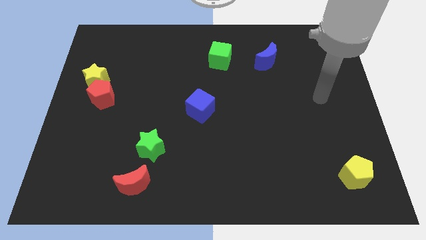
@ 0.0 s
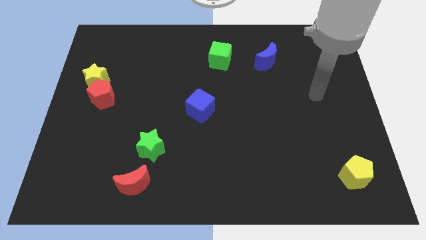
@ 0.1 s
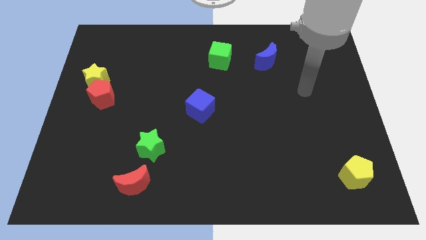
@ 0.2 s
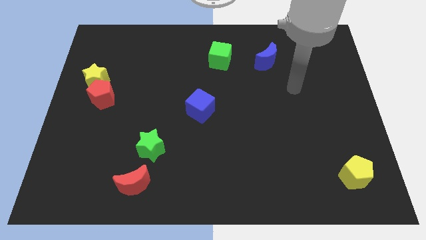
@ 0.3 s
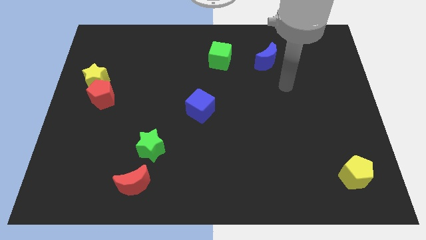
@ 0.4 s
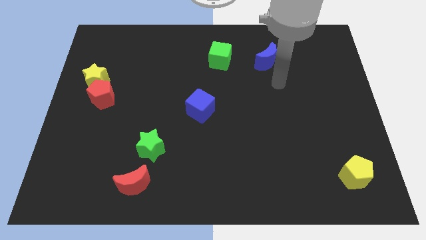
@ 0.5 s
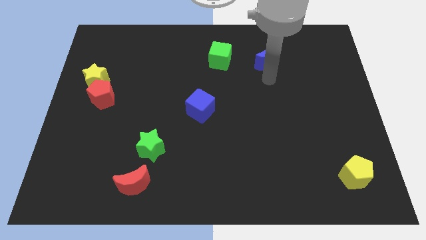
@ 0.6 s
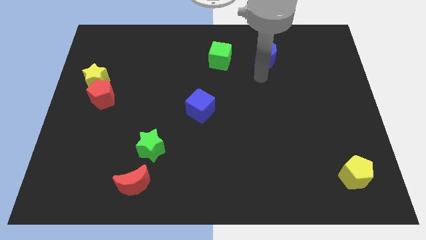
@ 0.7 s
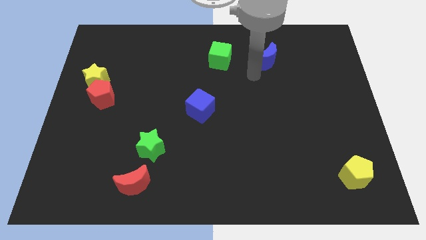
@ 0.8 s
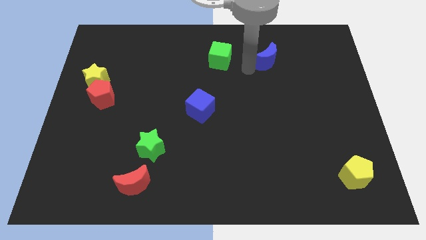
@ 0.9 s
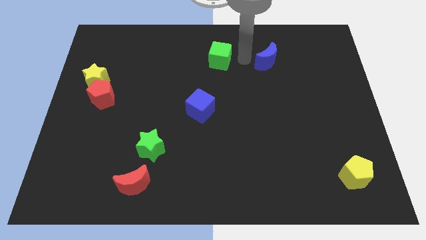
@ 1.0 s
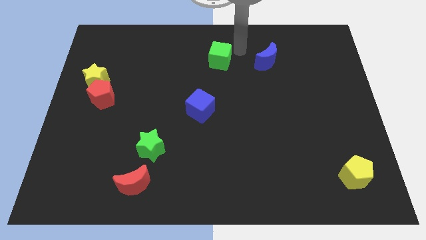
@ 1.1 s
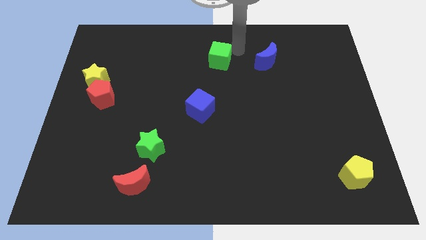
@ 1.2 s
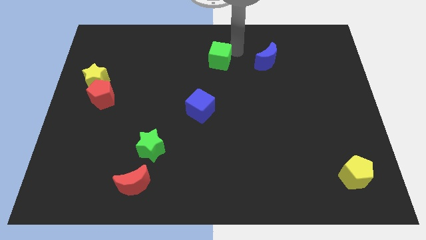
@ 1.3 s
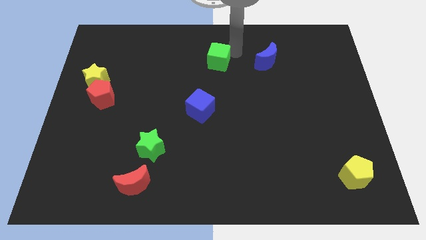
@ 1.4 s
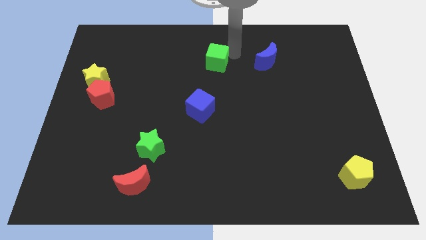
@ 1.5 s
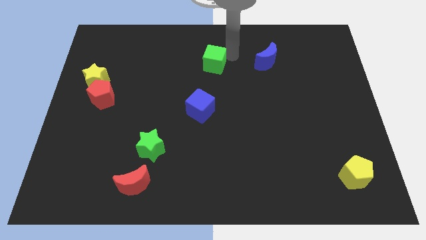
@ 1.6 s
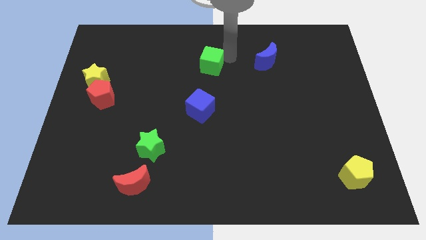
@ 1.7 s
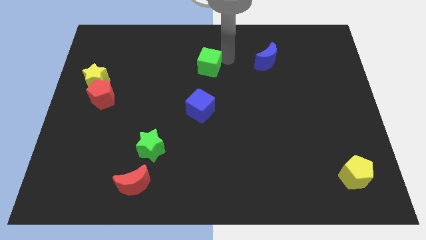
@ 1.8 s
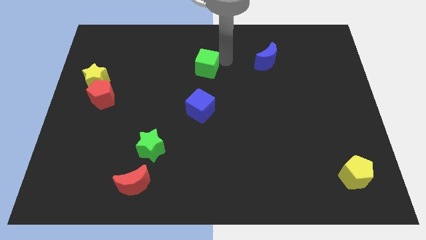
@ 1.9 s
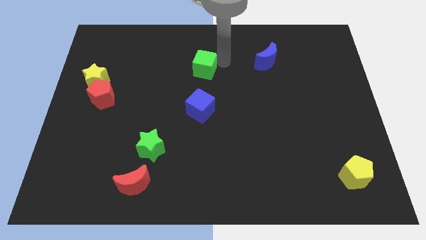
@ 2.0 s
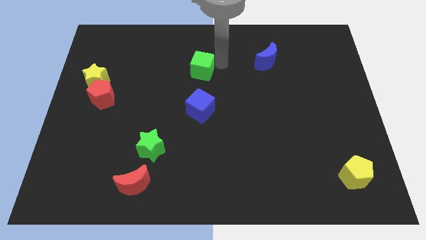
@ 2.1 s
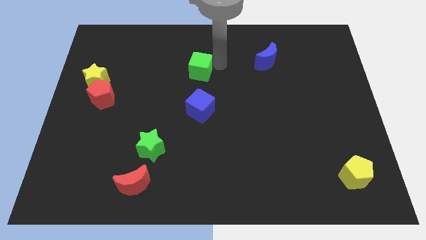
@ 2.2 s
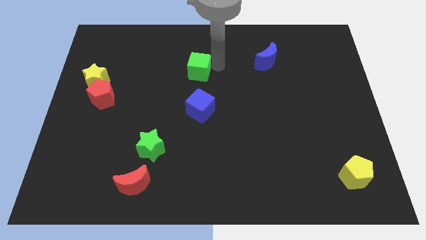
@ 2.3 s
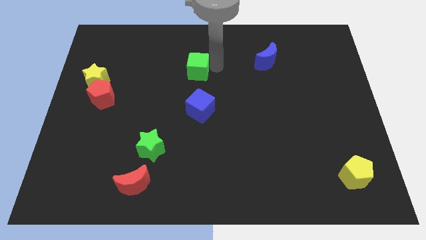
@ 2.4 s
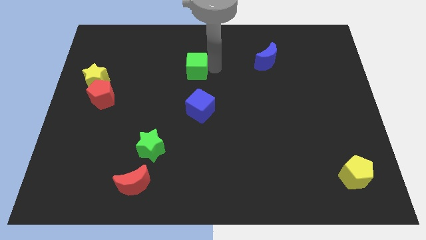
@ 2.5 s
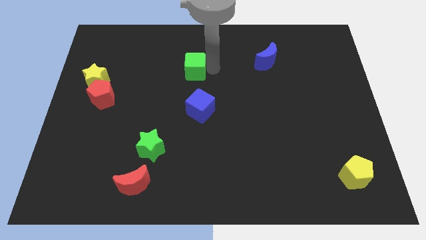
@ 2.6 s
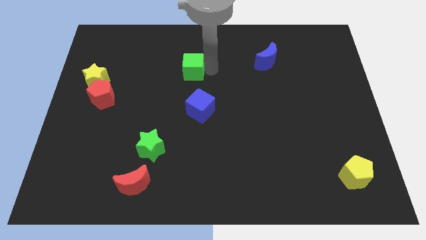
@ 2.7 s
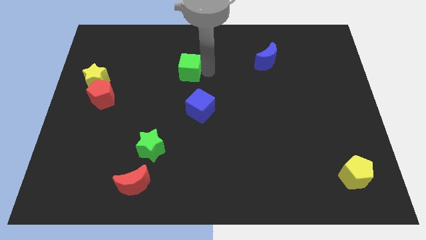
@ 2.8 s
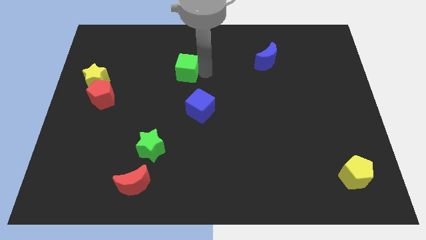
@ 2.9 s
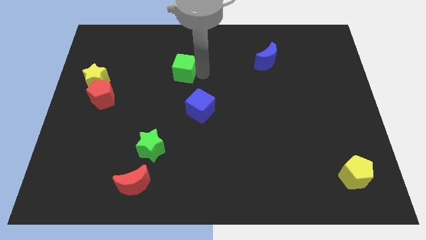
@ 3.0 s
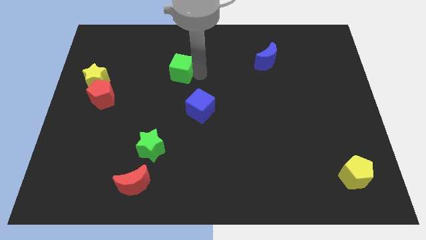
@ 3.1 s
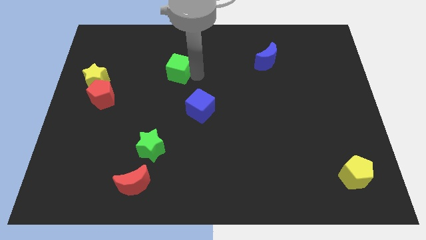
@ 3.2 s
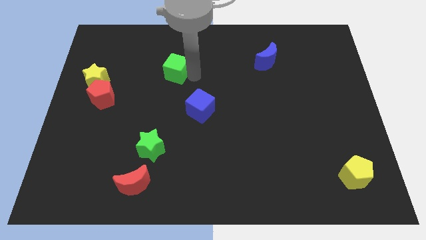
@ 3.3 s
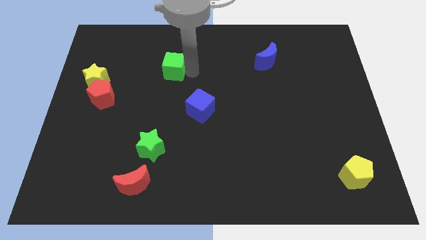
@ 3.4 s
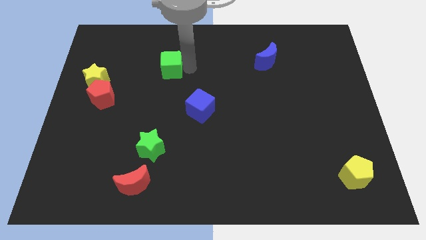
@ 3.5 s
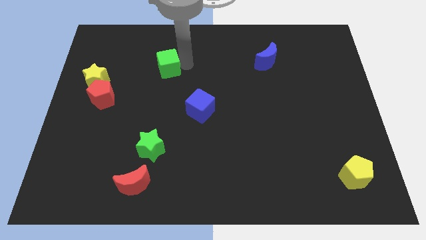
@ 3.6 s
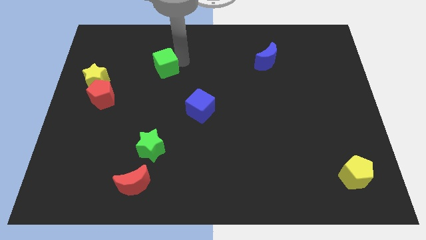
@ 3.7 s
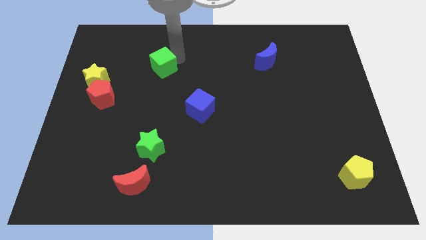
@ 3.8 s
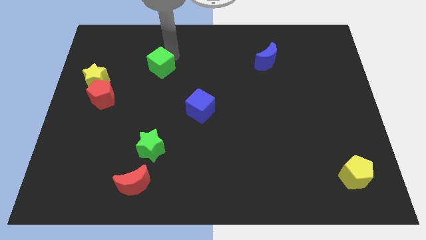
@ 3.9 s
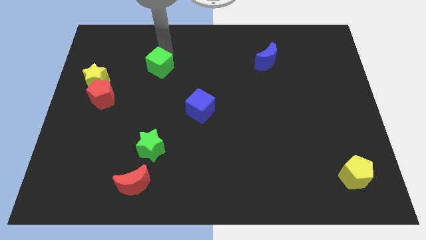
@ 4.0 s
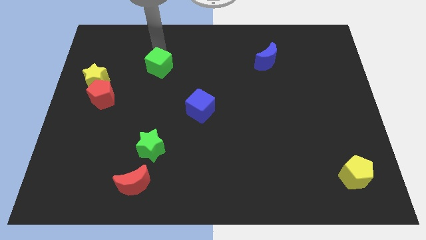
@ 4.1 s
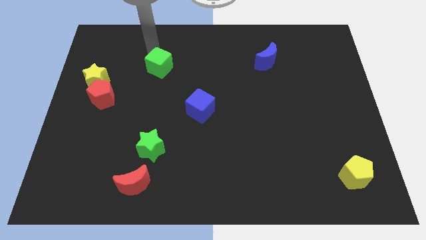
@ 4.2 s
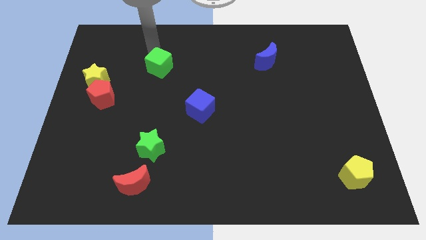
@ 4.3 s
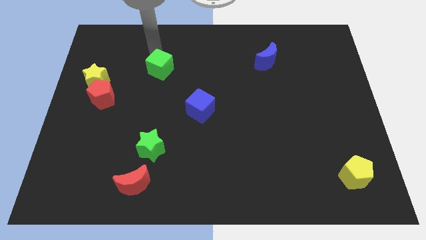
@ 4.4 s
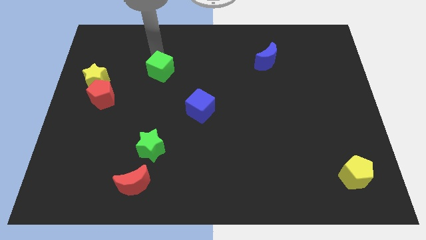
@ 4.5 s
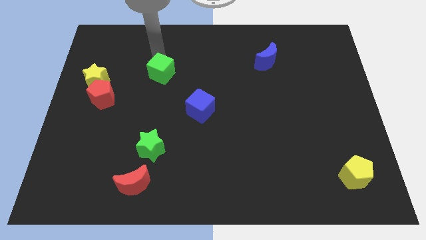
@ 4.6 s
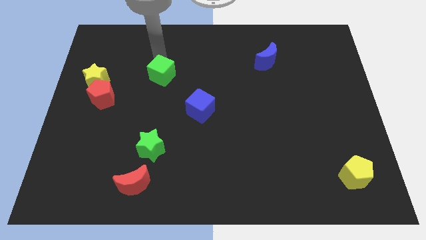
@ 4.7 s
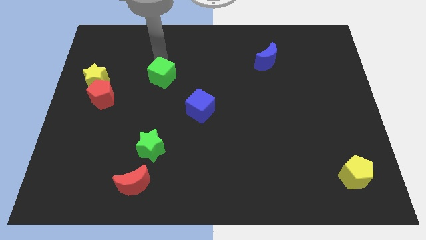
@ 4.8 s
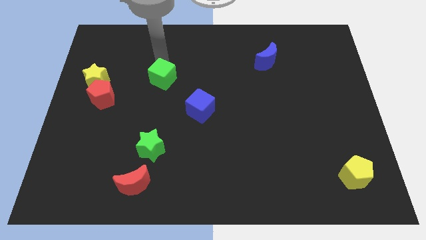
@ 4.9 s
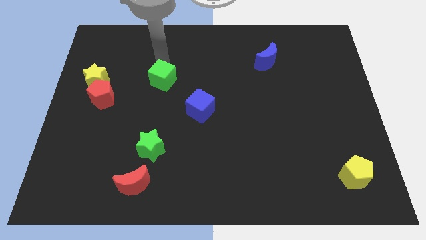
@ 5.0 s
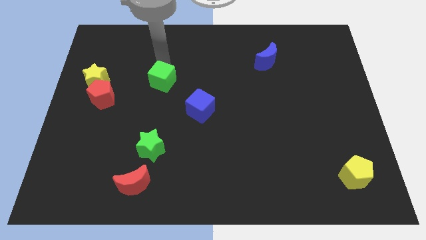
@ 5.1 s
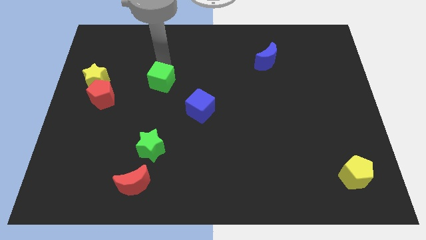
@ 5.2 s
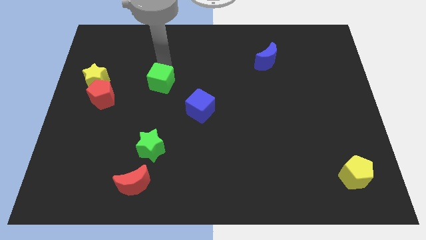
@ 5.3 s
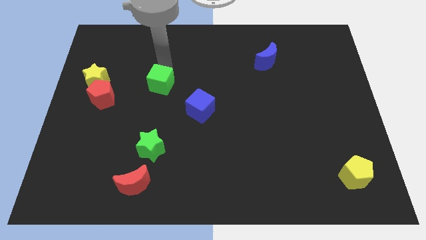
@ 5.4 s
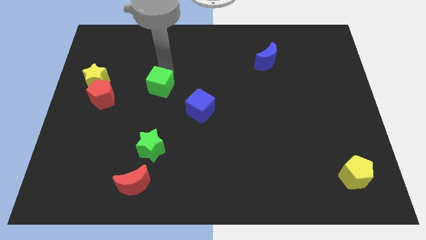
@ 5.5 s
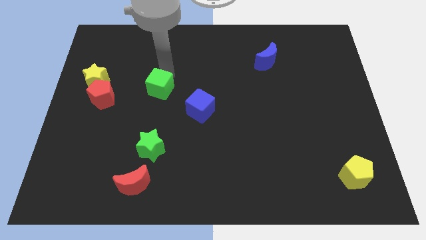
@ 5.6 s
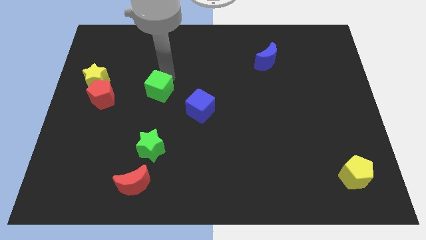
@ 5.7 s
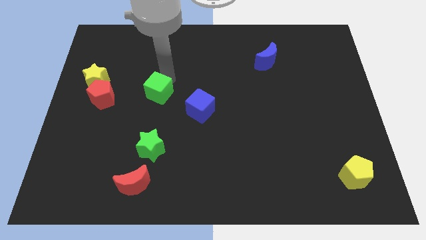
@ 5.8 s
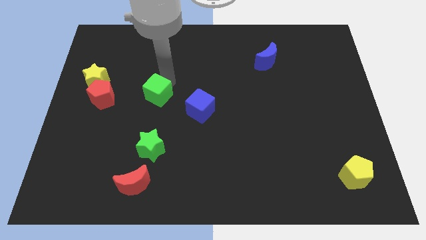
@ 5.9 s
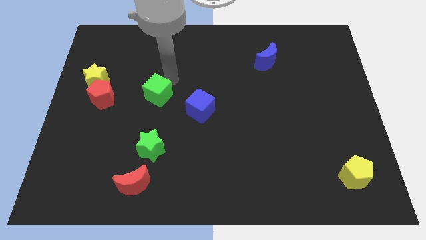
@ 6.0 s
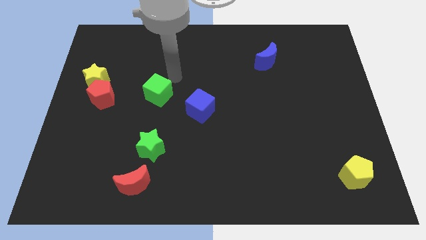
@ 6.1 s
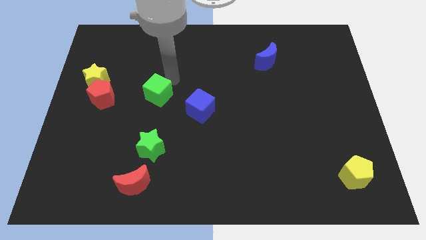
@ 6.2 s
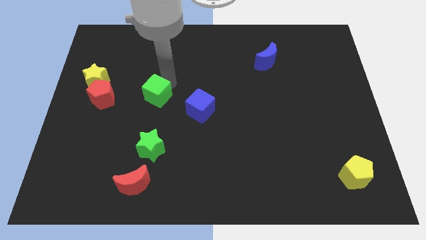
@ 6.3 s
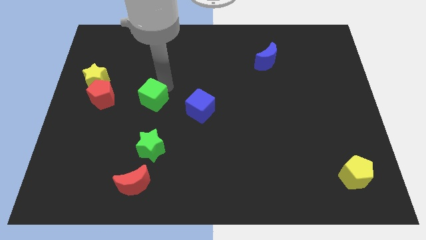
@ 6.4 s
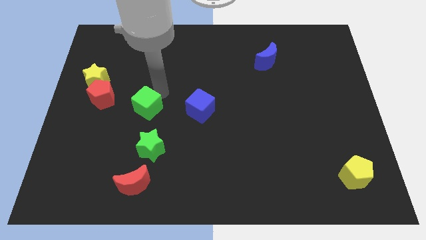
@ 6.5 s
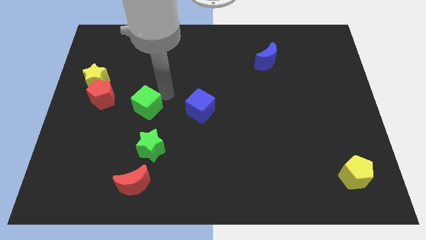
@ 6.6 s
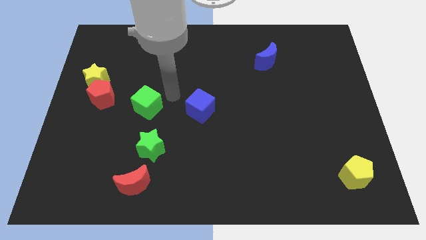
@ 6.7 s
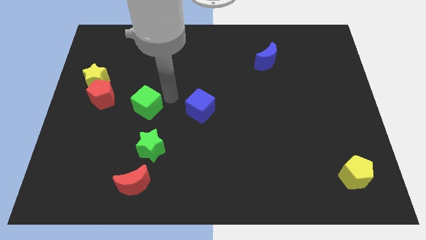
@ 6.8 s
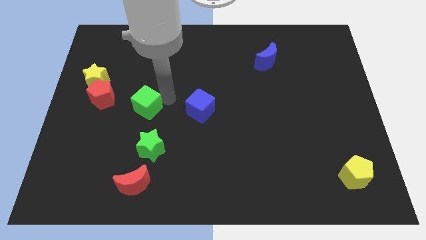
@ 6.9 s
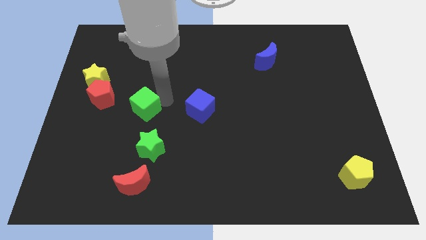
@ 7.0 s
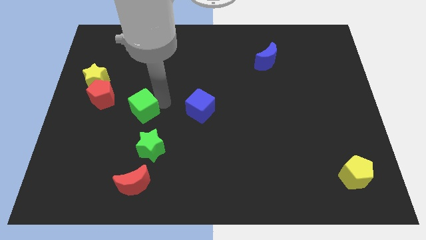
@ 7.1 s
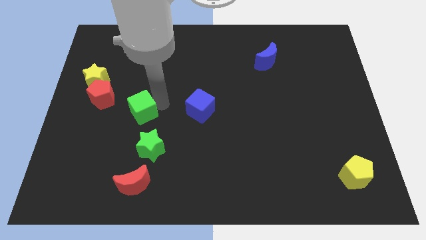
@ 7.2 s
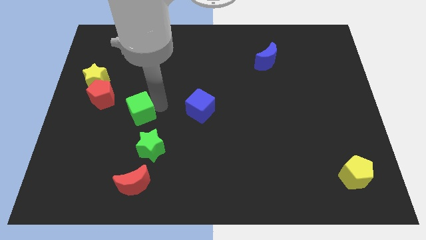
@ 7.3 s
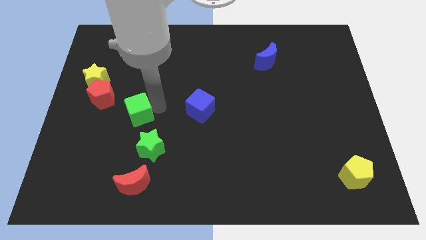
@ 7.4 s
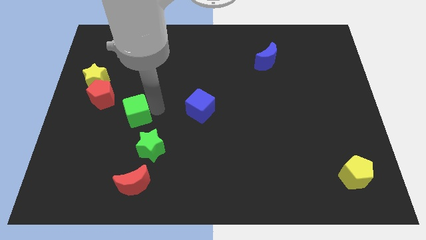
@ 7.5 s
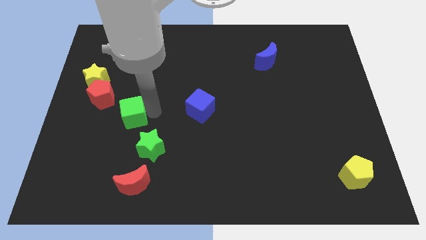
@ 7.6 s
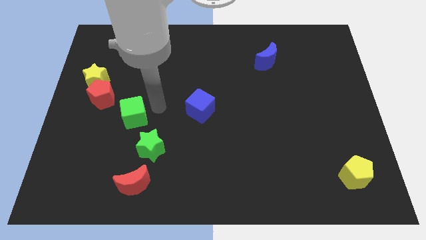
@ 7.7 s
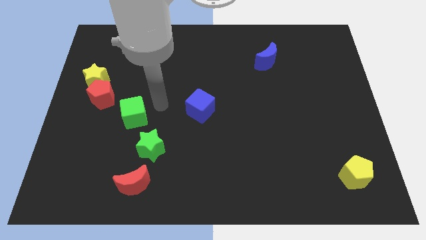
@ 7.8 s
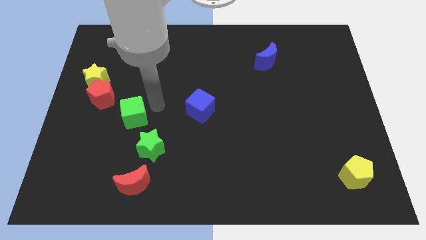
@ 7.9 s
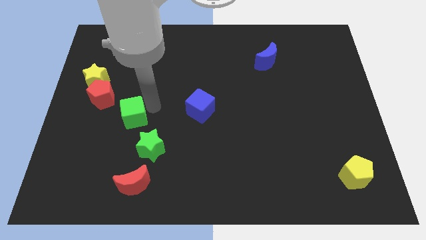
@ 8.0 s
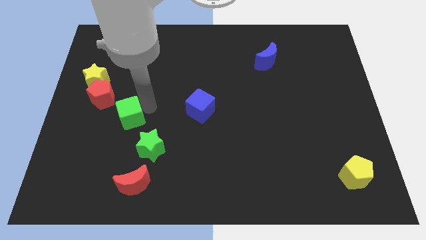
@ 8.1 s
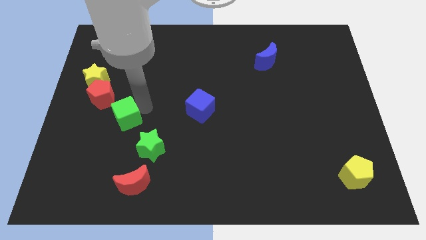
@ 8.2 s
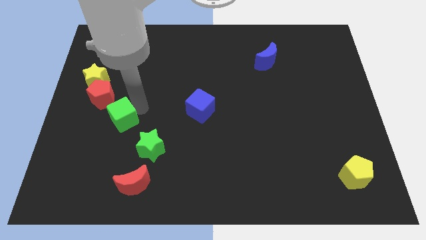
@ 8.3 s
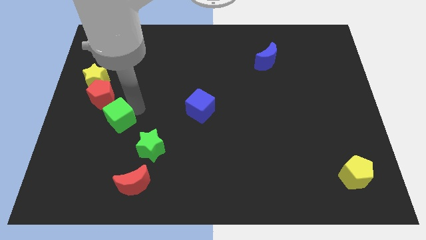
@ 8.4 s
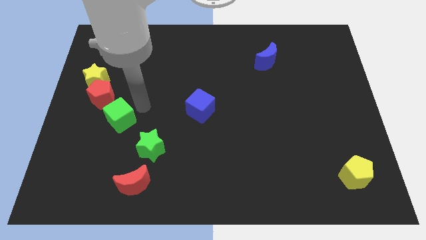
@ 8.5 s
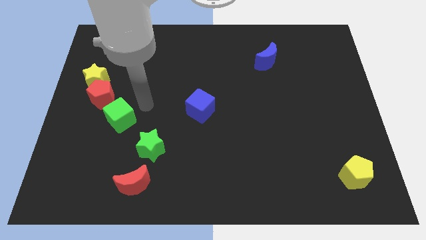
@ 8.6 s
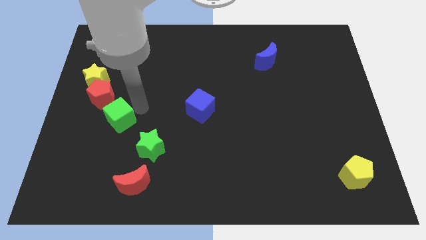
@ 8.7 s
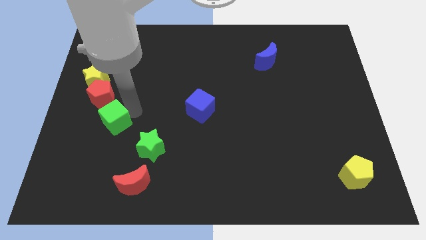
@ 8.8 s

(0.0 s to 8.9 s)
slide the green cube to the bottom side of the red pentagon
